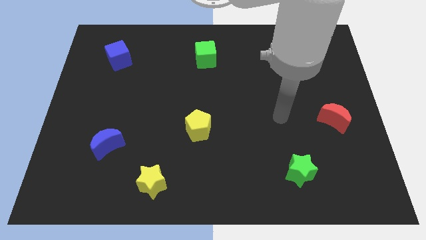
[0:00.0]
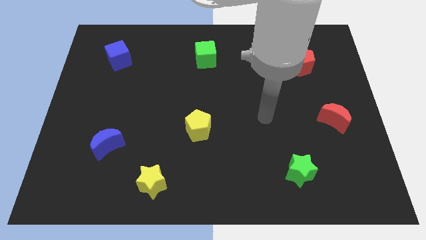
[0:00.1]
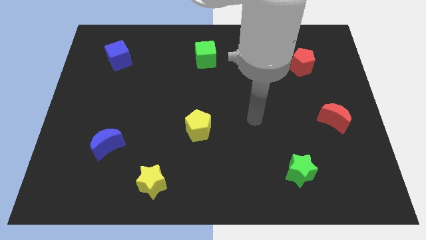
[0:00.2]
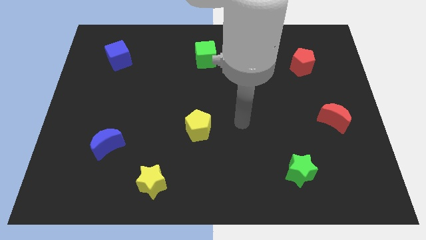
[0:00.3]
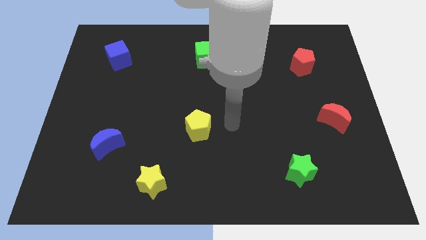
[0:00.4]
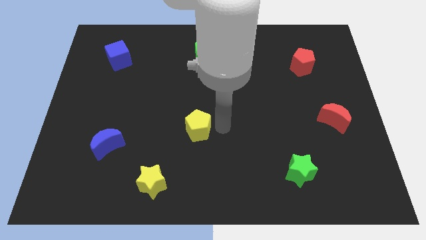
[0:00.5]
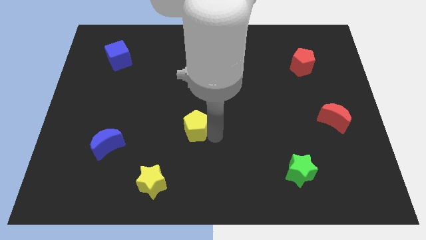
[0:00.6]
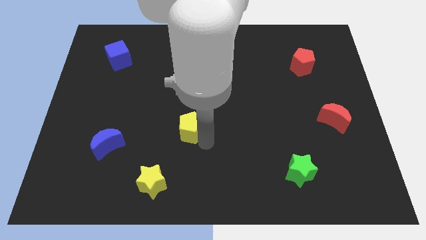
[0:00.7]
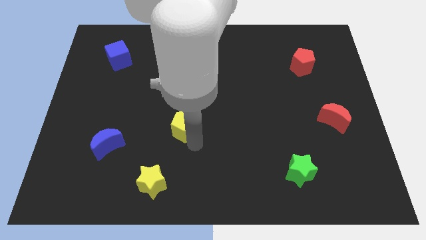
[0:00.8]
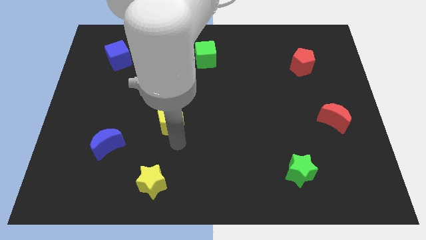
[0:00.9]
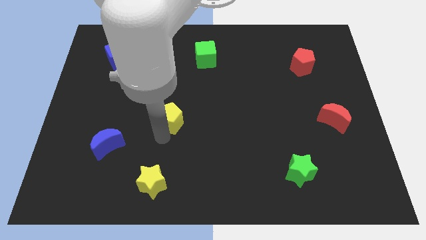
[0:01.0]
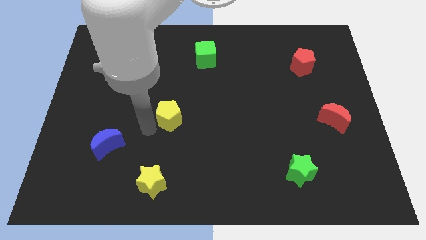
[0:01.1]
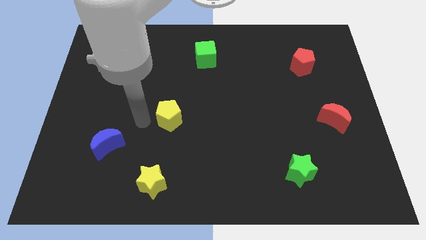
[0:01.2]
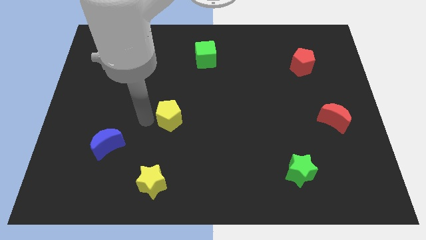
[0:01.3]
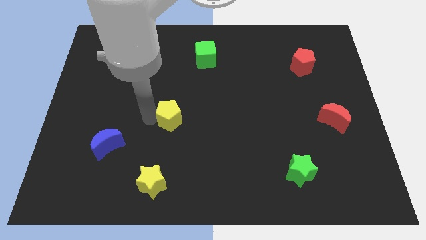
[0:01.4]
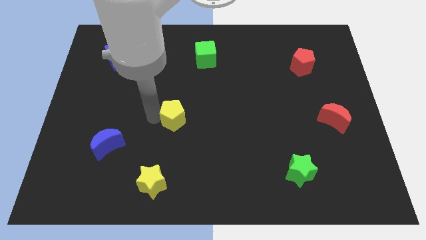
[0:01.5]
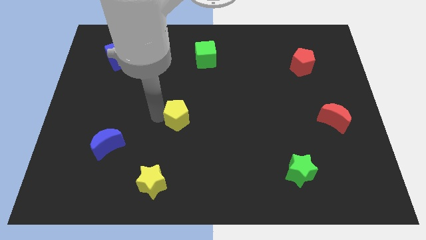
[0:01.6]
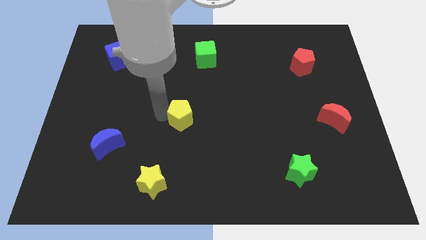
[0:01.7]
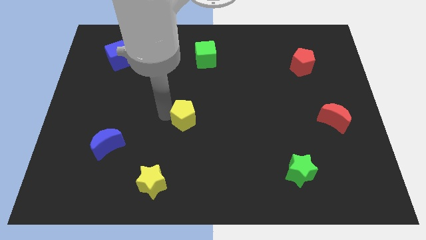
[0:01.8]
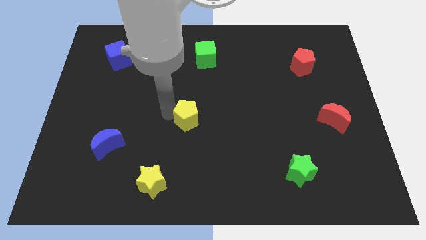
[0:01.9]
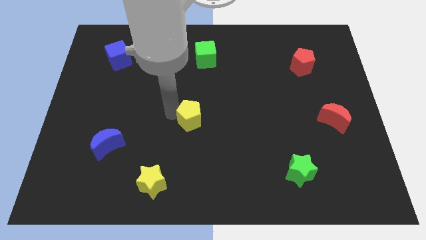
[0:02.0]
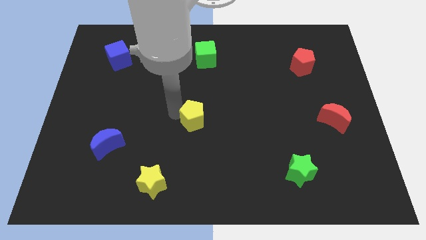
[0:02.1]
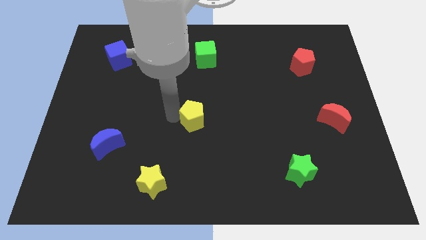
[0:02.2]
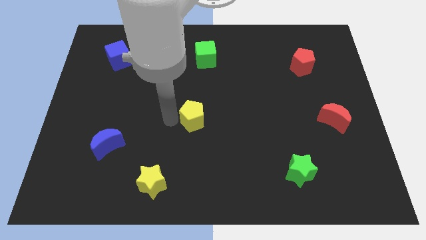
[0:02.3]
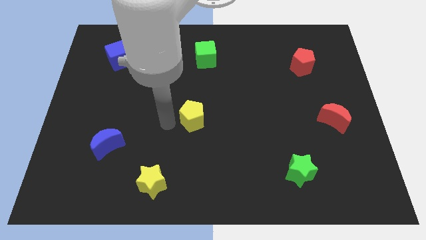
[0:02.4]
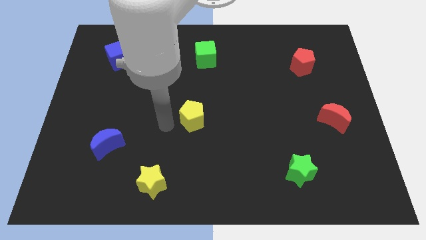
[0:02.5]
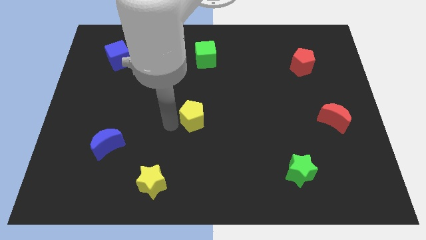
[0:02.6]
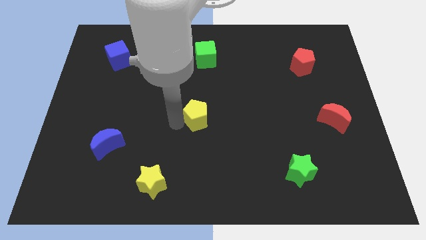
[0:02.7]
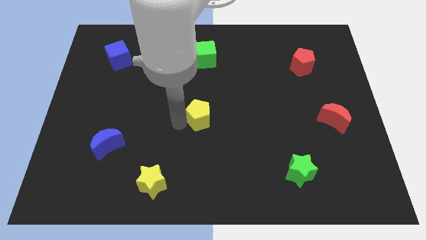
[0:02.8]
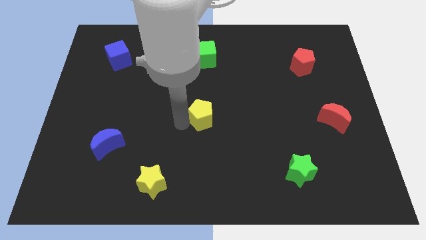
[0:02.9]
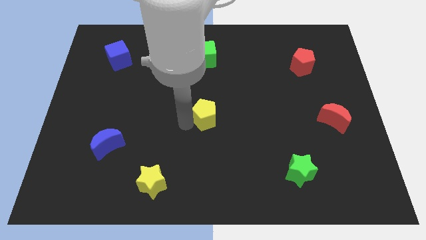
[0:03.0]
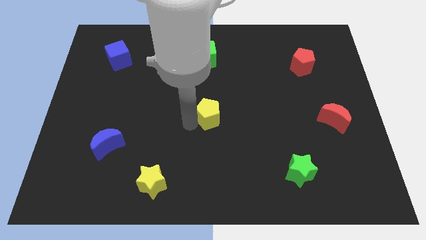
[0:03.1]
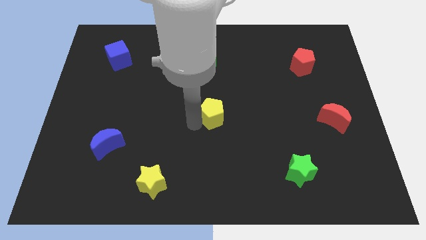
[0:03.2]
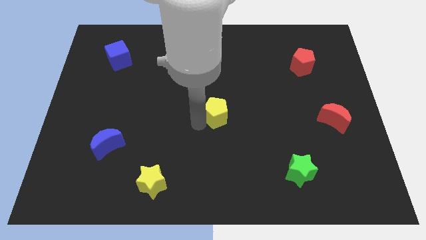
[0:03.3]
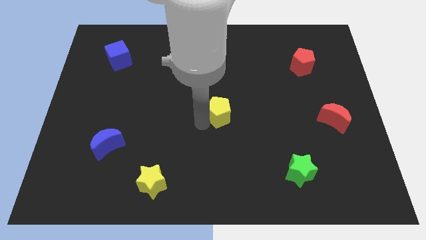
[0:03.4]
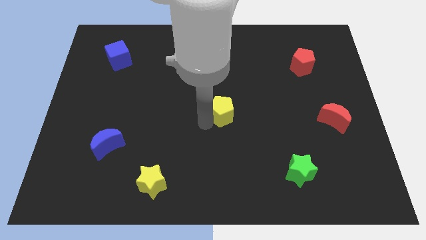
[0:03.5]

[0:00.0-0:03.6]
slide the yellow pentagon a bit up and then right

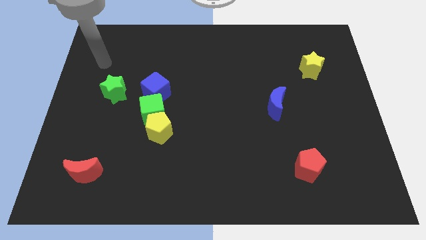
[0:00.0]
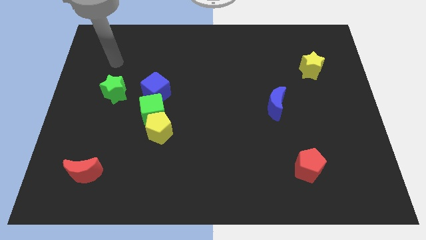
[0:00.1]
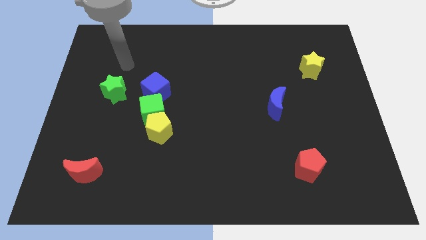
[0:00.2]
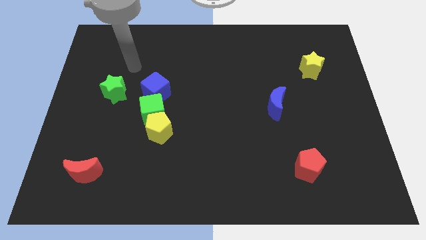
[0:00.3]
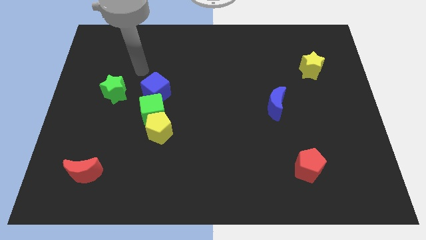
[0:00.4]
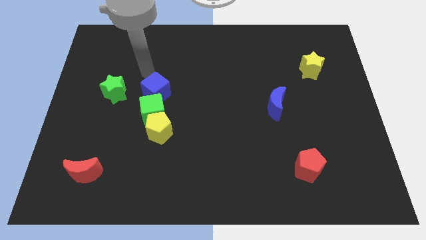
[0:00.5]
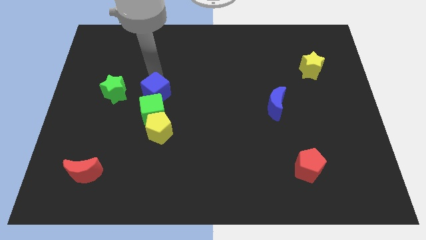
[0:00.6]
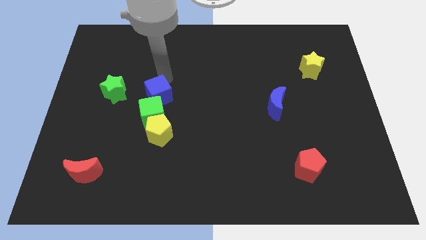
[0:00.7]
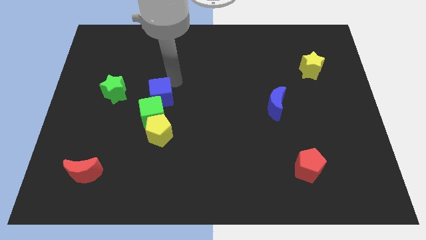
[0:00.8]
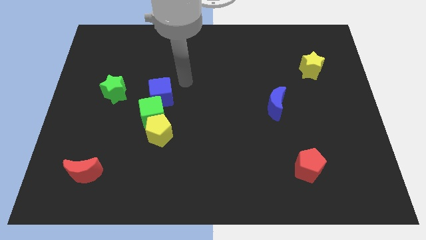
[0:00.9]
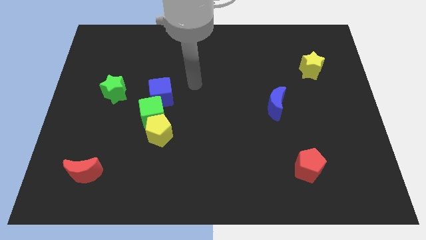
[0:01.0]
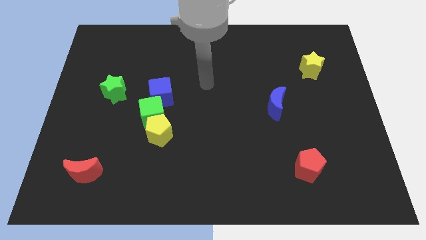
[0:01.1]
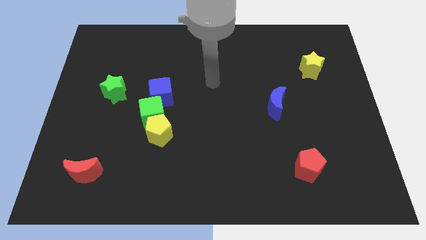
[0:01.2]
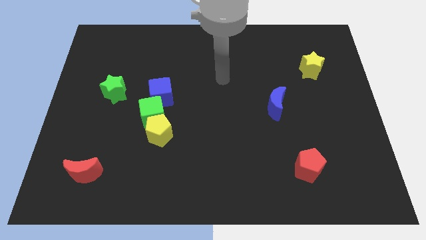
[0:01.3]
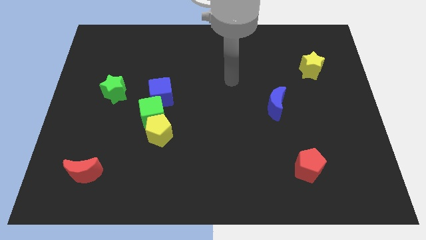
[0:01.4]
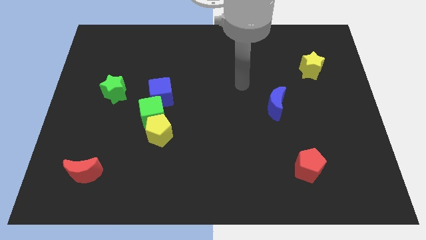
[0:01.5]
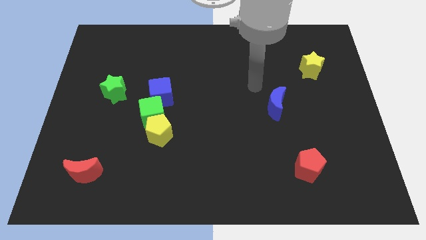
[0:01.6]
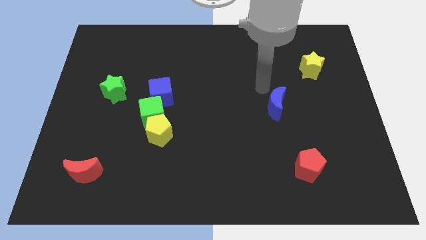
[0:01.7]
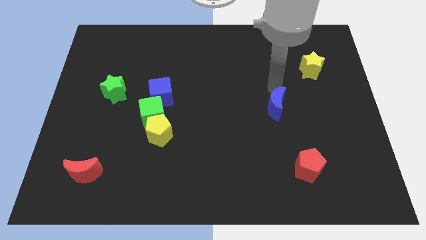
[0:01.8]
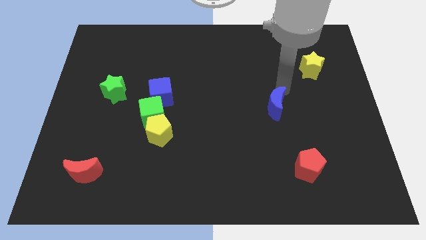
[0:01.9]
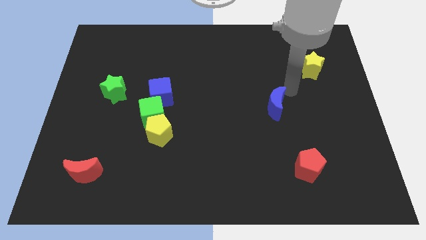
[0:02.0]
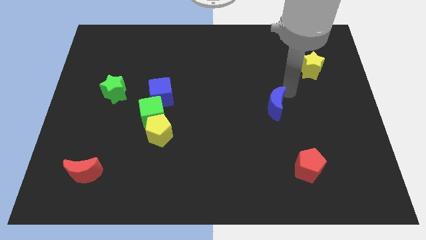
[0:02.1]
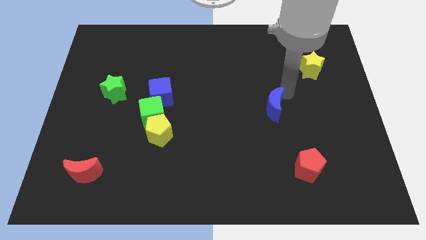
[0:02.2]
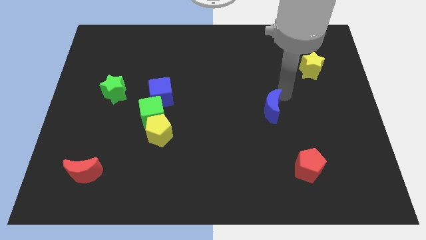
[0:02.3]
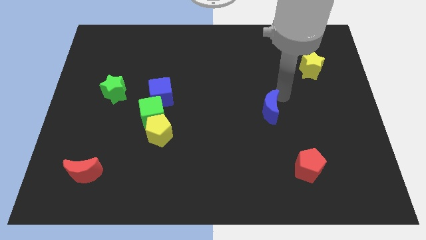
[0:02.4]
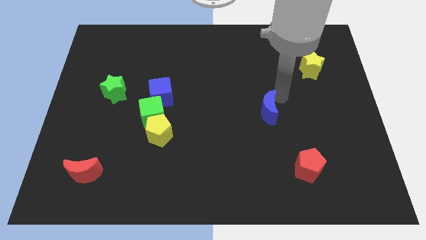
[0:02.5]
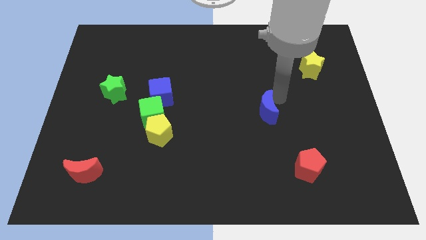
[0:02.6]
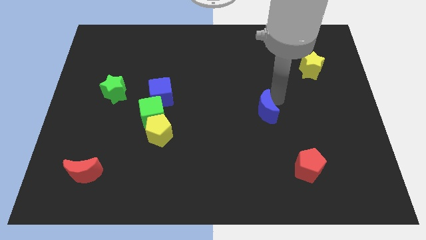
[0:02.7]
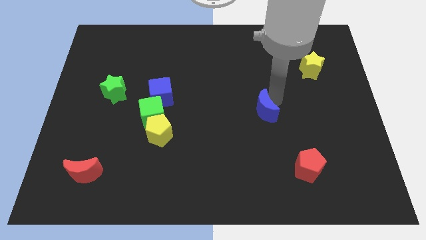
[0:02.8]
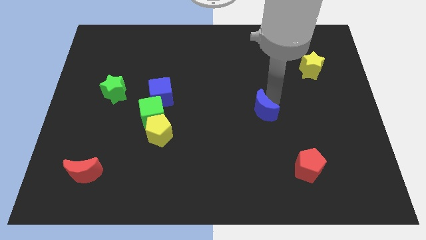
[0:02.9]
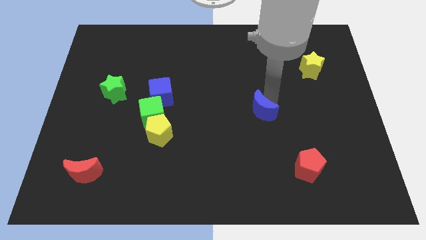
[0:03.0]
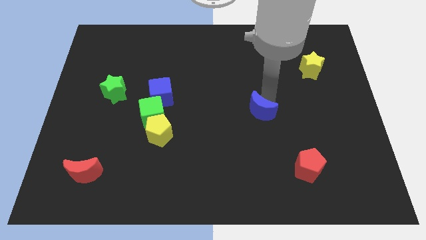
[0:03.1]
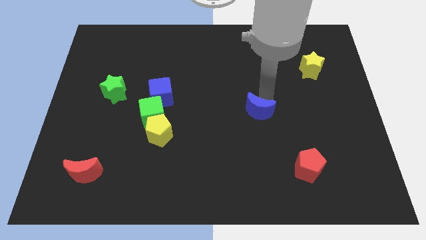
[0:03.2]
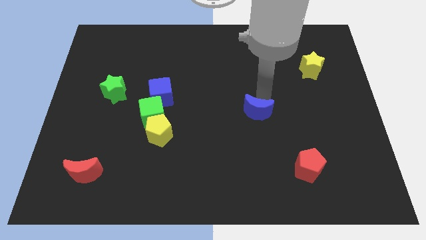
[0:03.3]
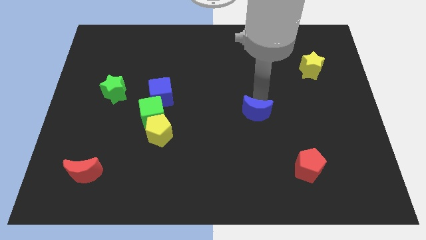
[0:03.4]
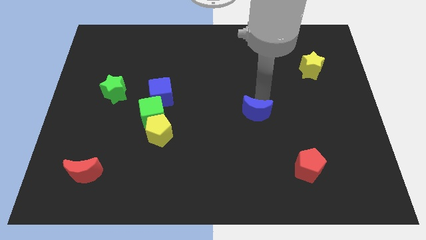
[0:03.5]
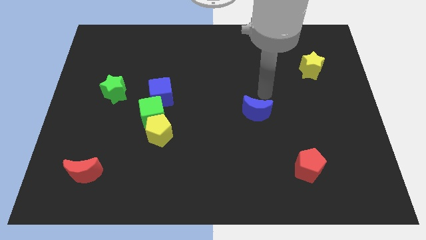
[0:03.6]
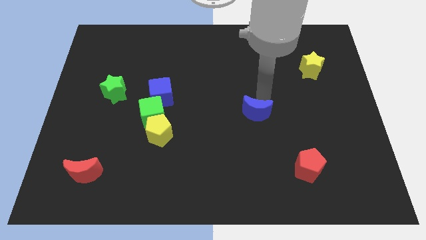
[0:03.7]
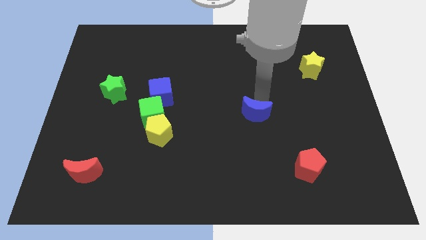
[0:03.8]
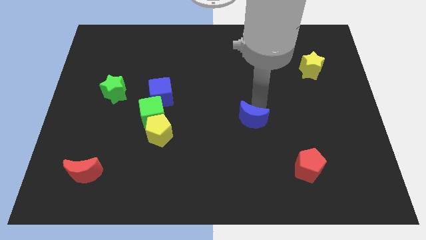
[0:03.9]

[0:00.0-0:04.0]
move the blue moon down and to the left diagonally somewhat

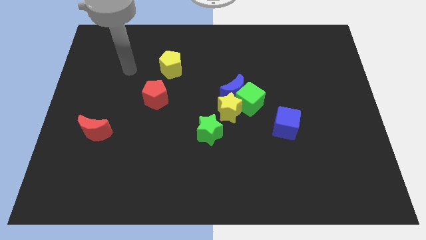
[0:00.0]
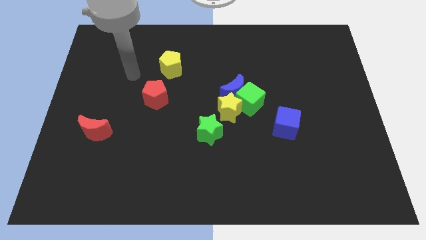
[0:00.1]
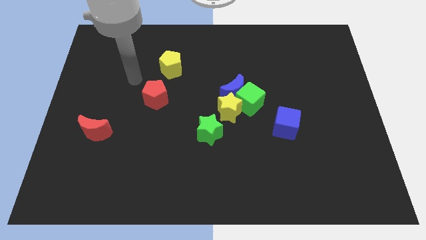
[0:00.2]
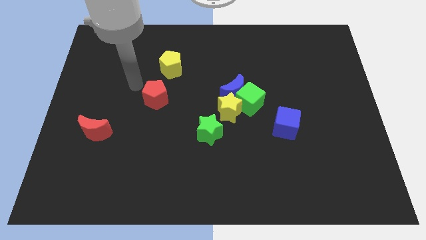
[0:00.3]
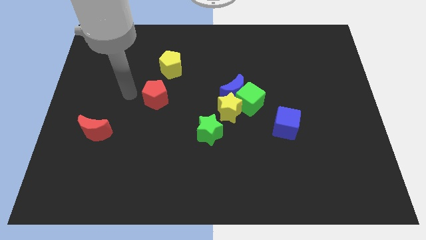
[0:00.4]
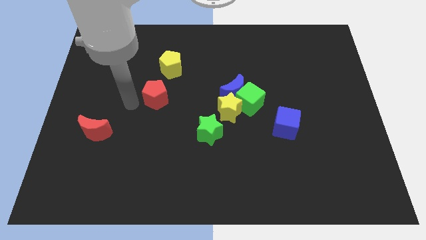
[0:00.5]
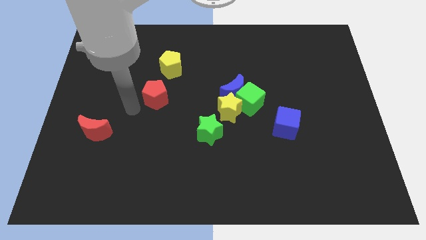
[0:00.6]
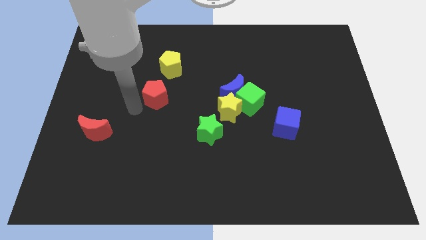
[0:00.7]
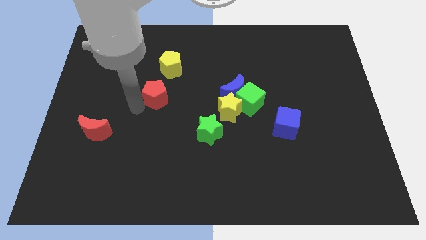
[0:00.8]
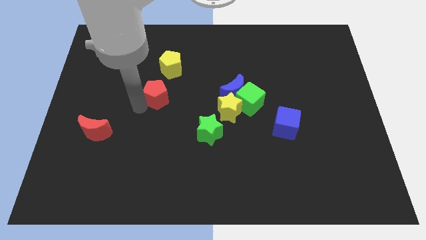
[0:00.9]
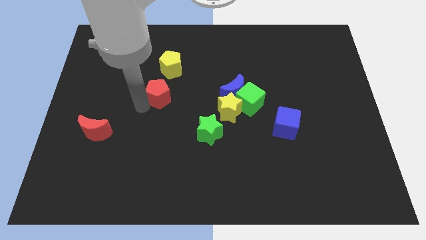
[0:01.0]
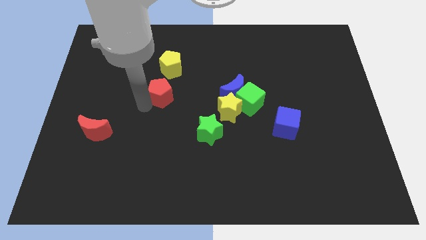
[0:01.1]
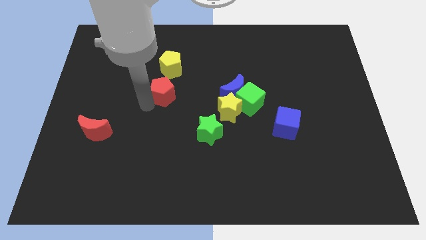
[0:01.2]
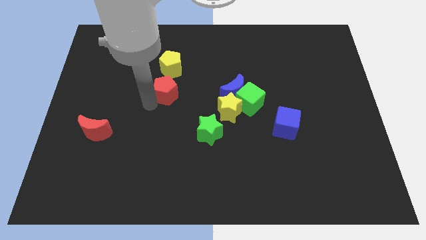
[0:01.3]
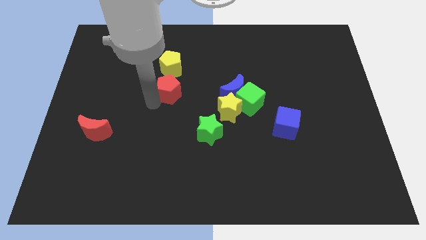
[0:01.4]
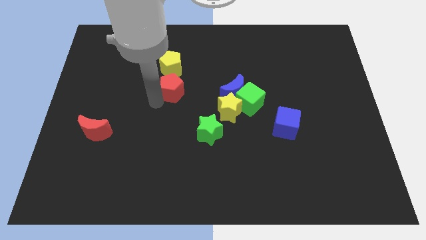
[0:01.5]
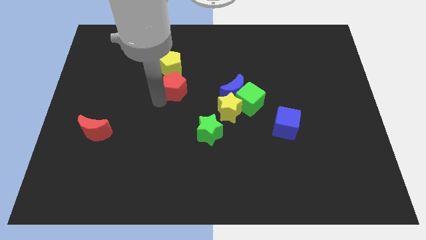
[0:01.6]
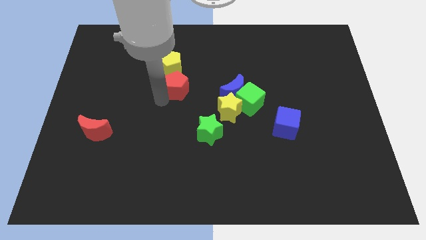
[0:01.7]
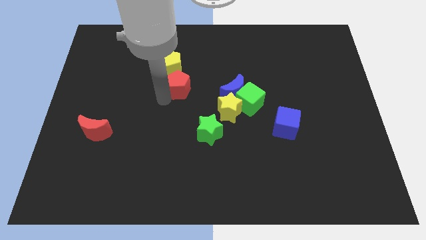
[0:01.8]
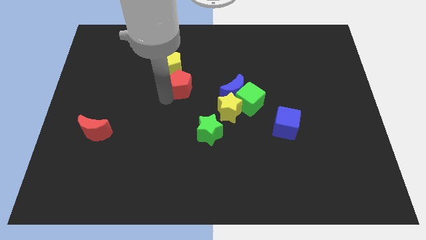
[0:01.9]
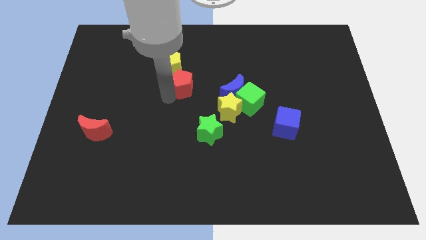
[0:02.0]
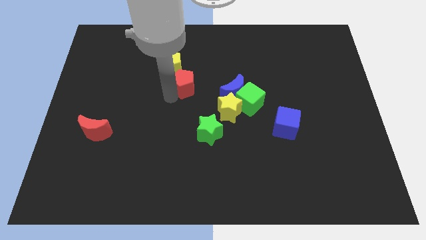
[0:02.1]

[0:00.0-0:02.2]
slightly slide the red pentagon up and to the right
